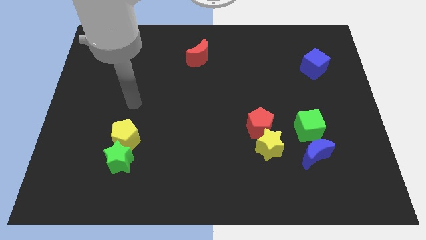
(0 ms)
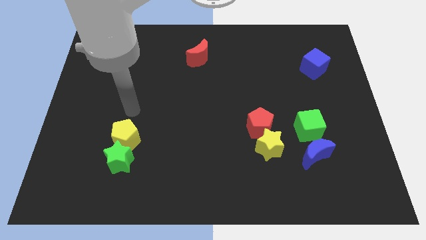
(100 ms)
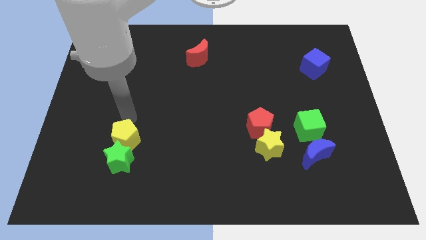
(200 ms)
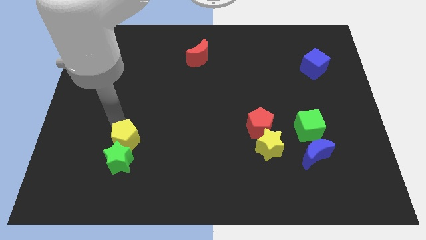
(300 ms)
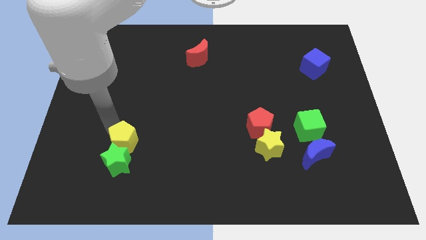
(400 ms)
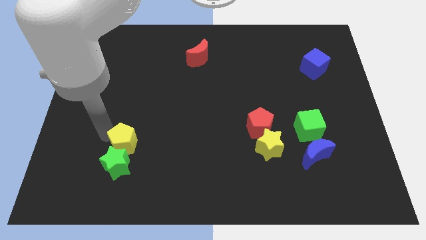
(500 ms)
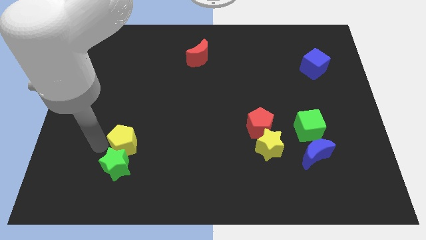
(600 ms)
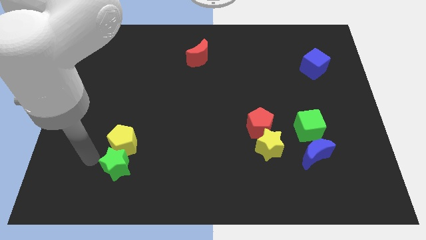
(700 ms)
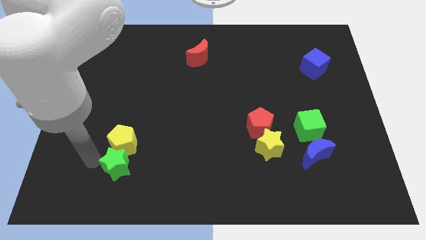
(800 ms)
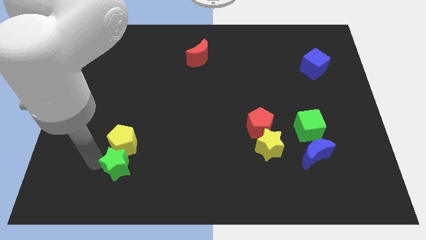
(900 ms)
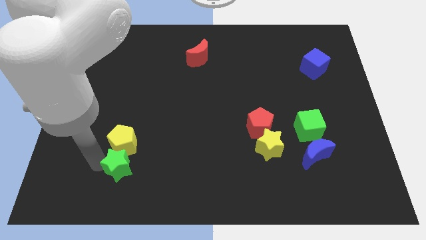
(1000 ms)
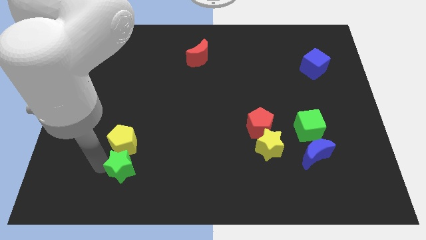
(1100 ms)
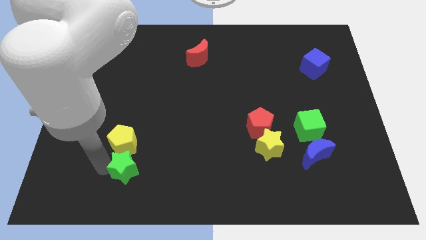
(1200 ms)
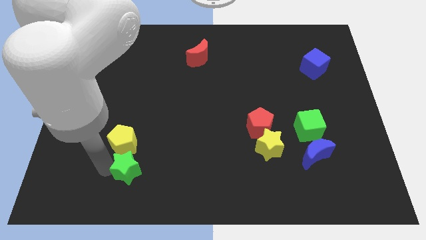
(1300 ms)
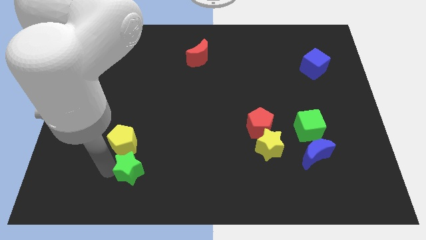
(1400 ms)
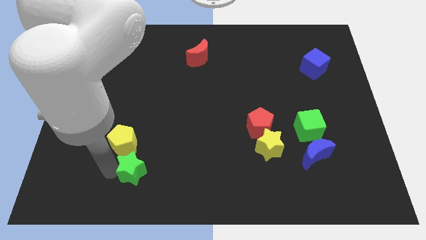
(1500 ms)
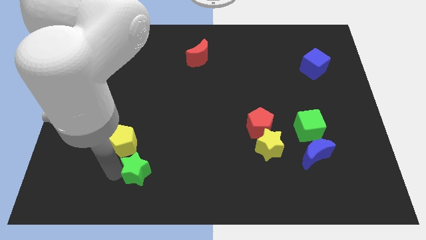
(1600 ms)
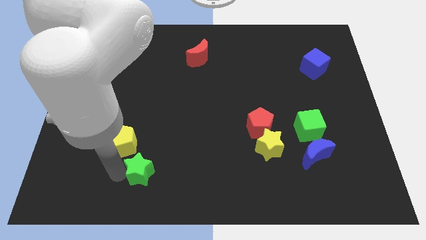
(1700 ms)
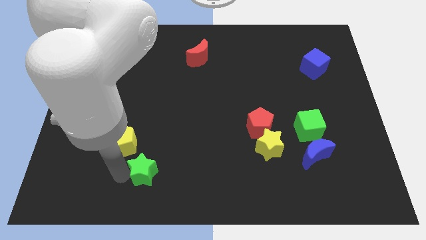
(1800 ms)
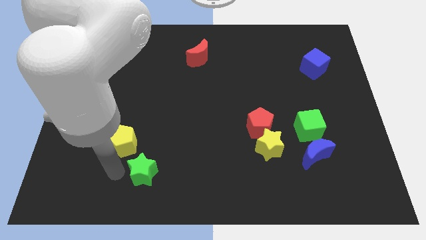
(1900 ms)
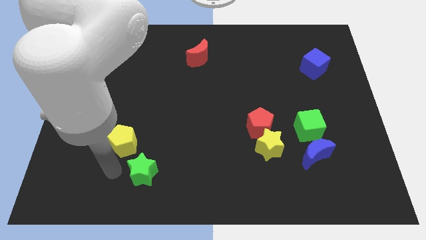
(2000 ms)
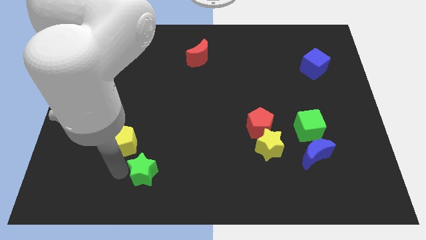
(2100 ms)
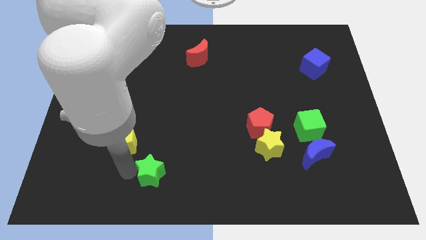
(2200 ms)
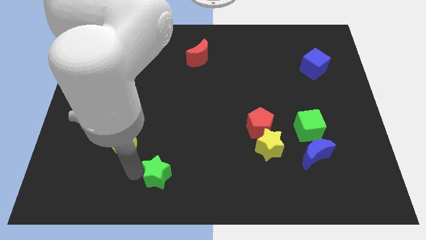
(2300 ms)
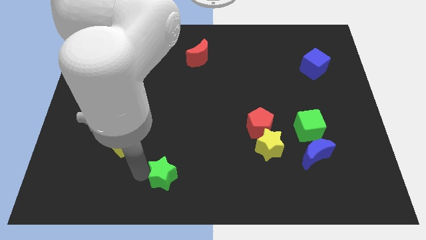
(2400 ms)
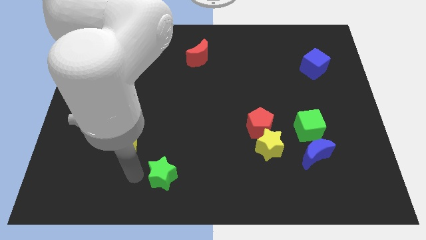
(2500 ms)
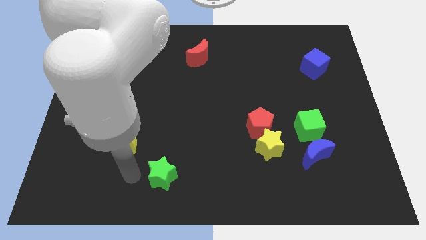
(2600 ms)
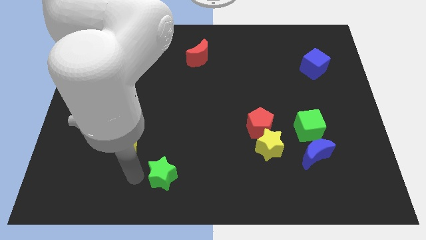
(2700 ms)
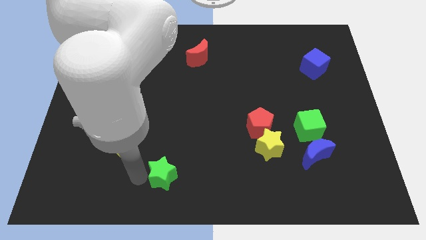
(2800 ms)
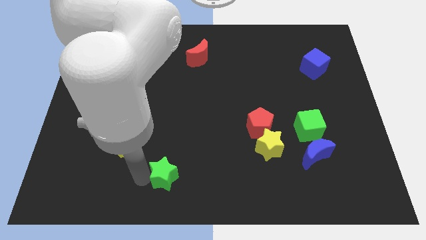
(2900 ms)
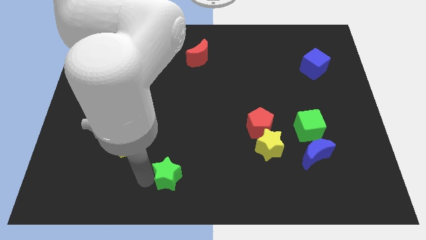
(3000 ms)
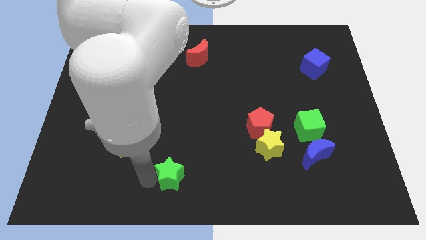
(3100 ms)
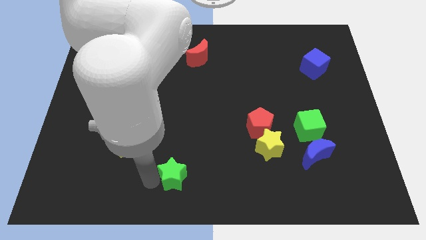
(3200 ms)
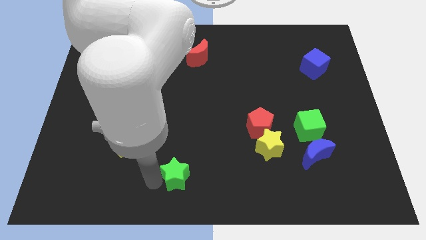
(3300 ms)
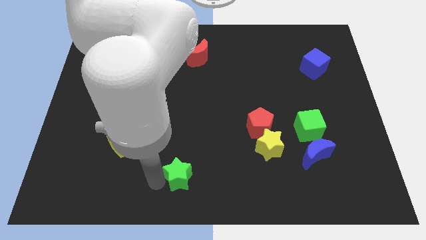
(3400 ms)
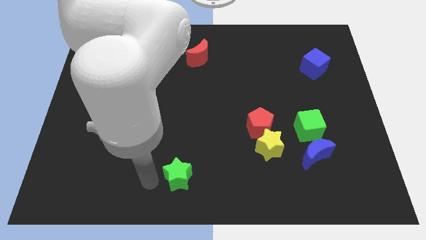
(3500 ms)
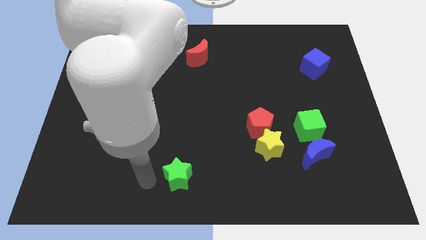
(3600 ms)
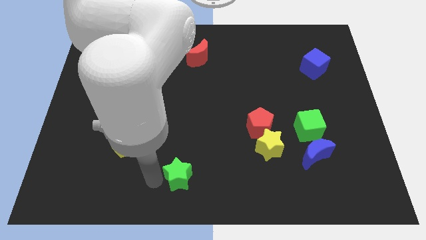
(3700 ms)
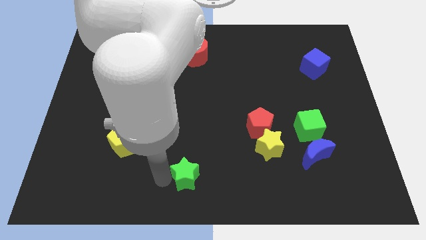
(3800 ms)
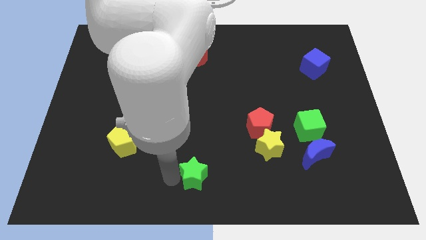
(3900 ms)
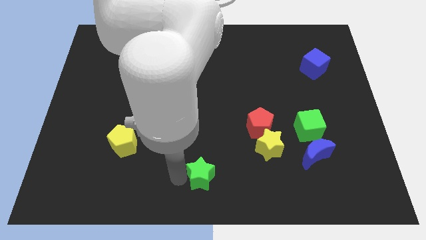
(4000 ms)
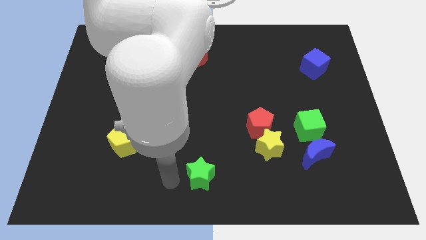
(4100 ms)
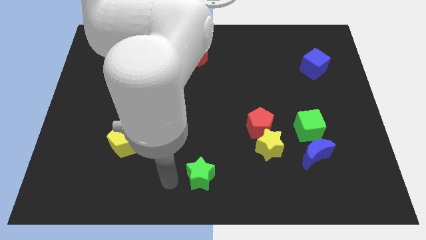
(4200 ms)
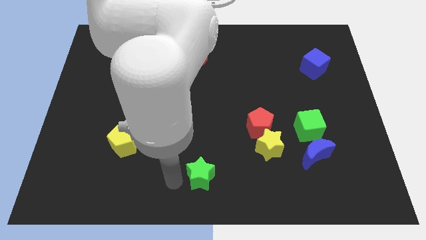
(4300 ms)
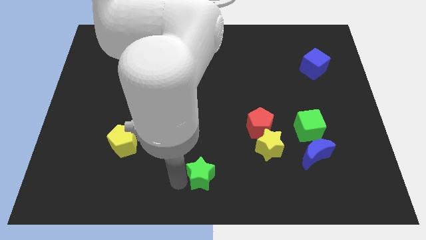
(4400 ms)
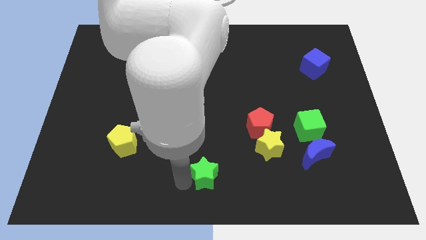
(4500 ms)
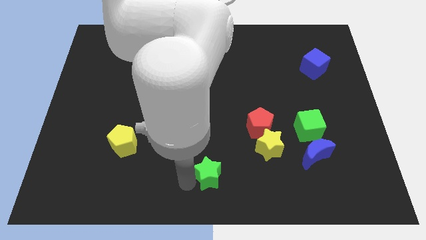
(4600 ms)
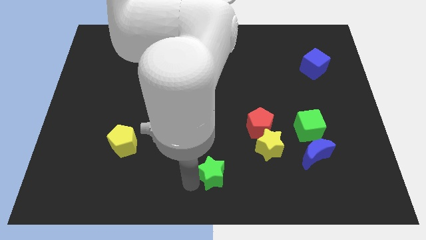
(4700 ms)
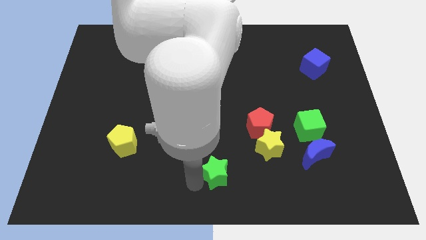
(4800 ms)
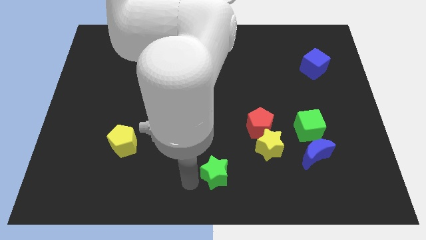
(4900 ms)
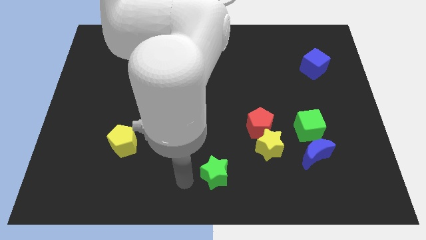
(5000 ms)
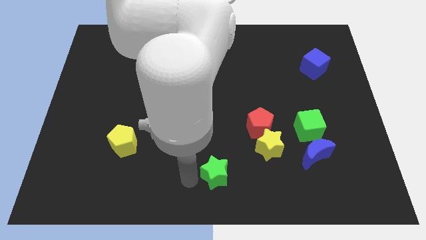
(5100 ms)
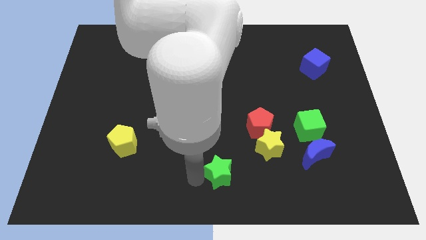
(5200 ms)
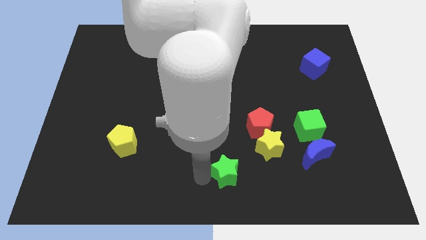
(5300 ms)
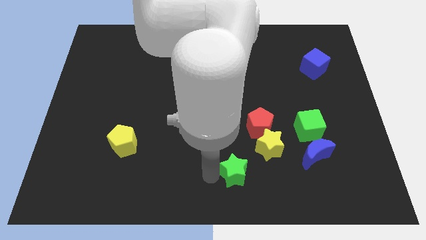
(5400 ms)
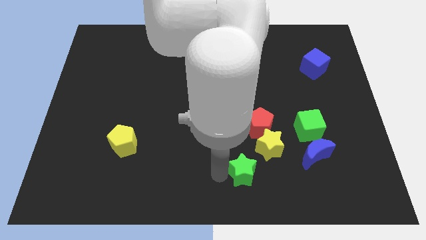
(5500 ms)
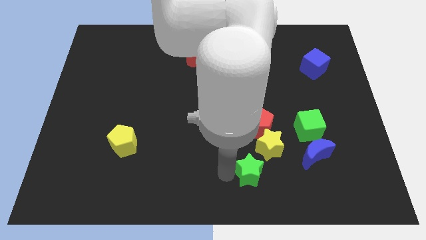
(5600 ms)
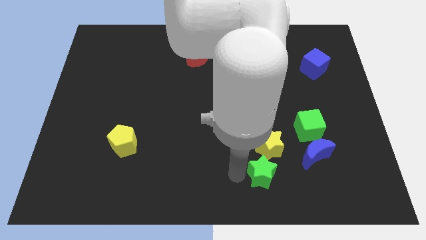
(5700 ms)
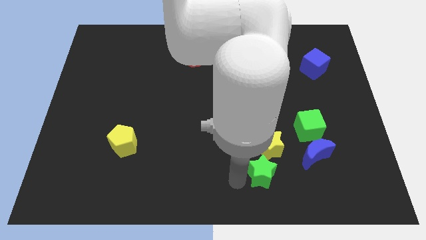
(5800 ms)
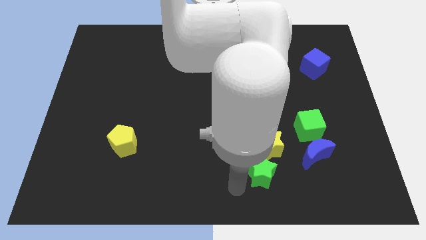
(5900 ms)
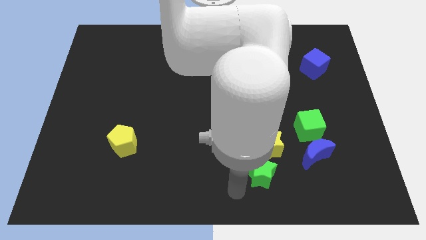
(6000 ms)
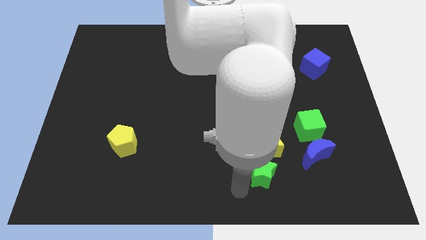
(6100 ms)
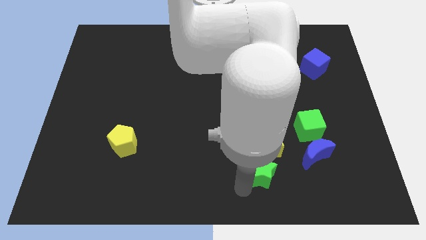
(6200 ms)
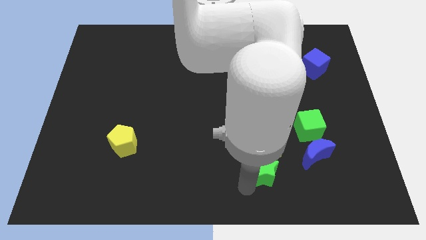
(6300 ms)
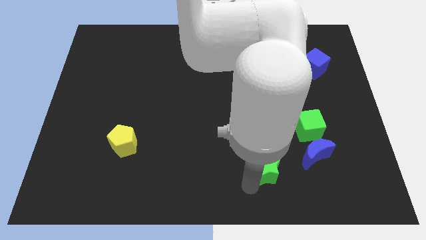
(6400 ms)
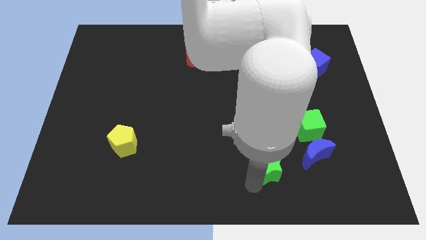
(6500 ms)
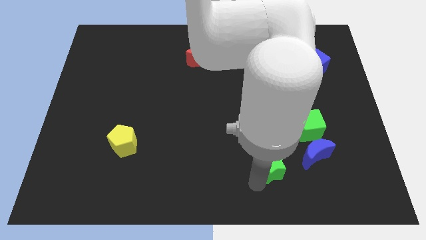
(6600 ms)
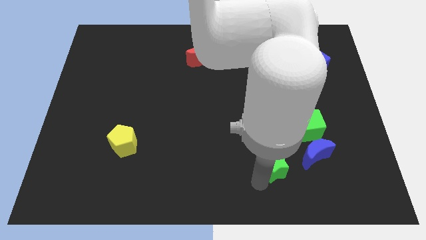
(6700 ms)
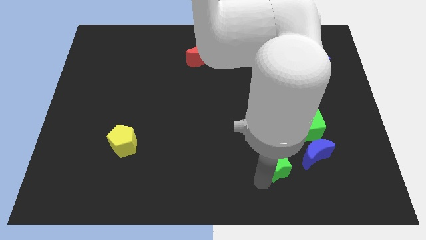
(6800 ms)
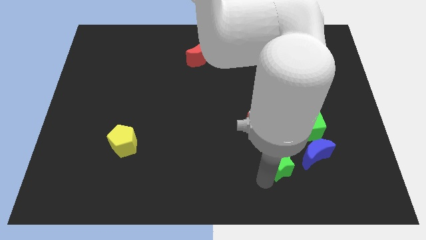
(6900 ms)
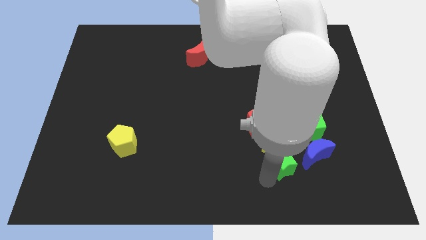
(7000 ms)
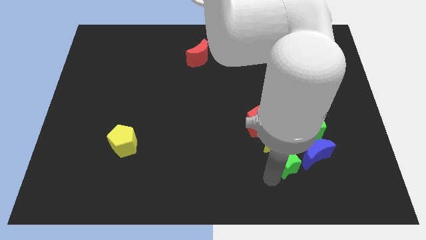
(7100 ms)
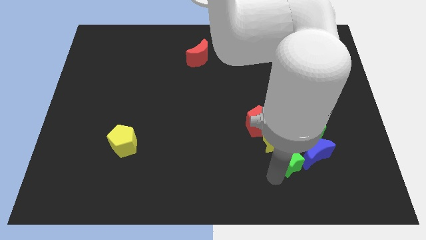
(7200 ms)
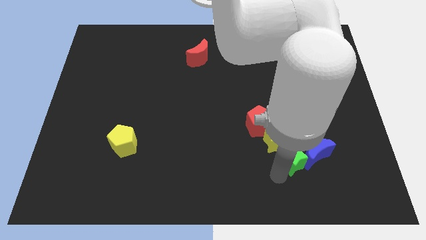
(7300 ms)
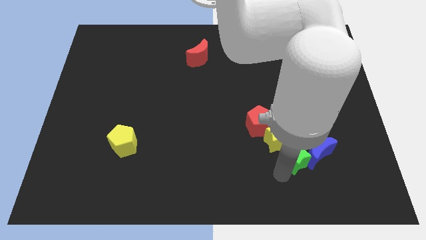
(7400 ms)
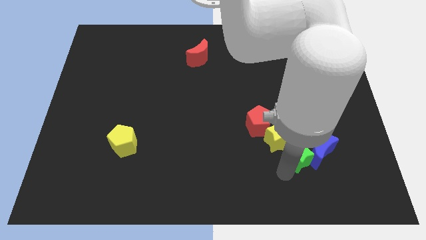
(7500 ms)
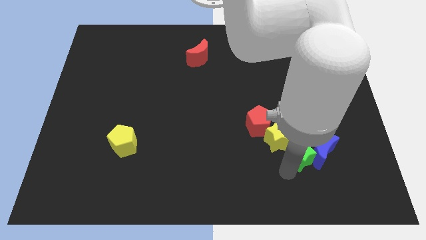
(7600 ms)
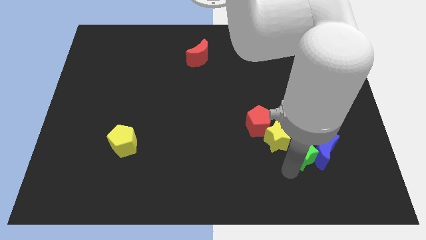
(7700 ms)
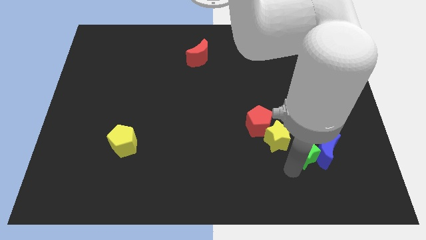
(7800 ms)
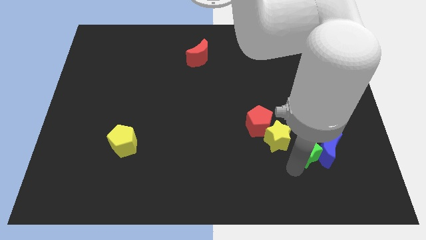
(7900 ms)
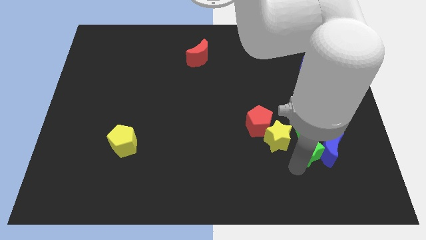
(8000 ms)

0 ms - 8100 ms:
put the green star towards the green cube

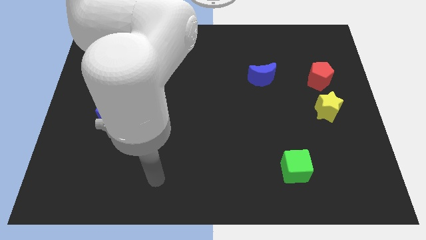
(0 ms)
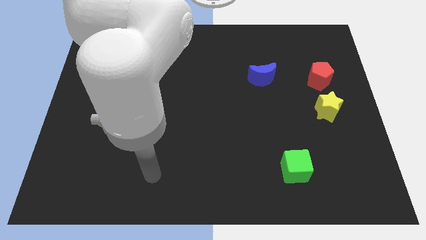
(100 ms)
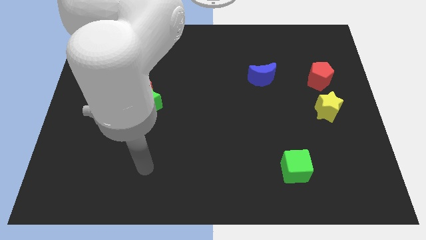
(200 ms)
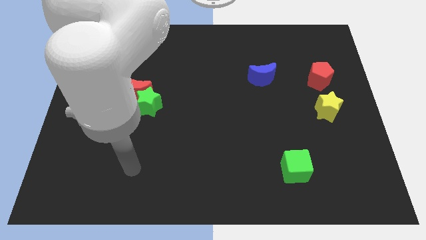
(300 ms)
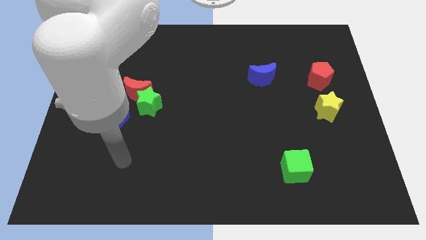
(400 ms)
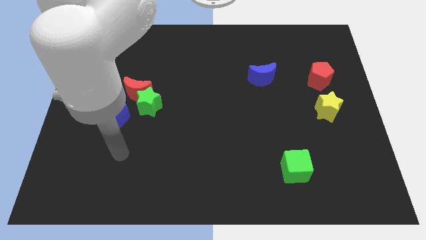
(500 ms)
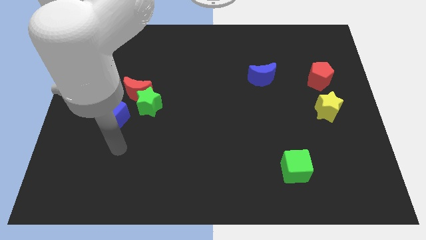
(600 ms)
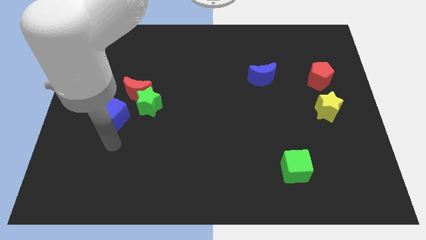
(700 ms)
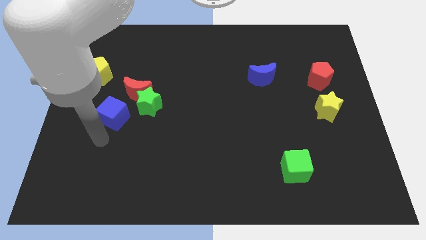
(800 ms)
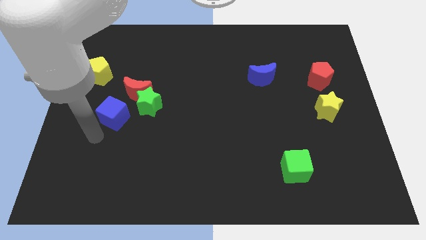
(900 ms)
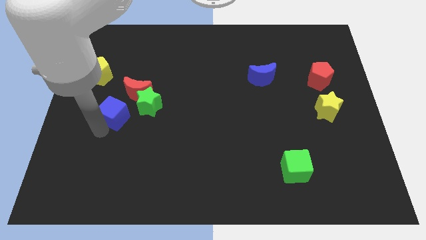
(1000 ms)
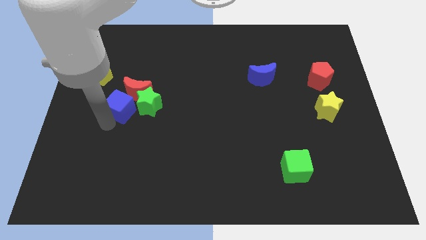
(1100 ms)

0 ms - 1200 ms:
put the blue cube towards the red moon
